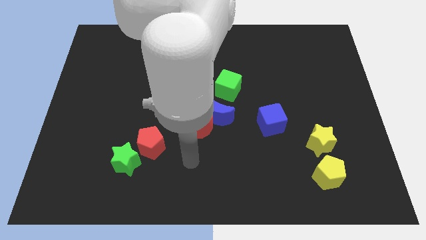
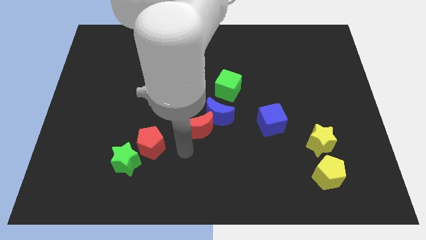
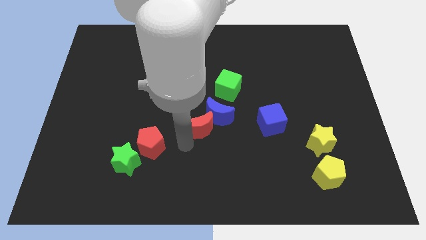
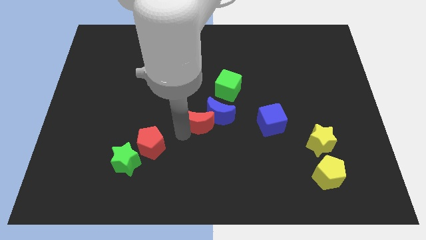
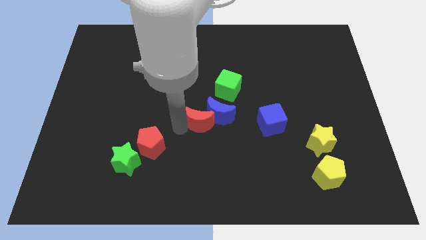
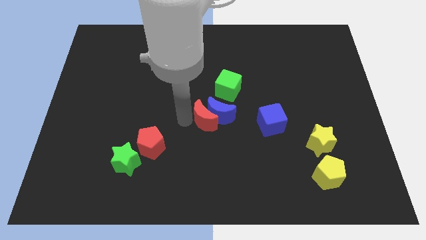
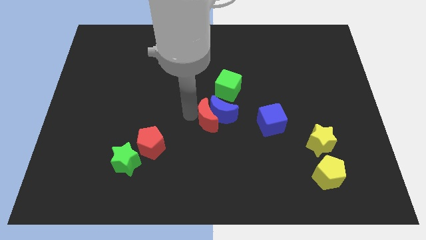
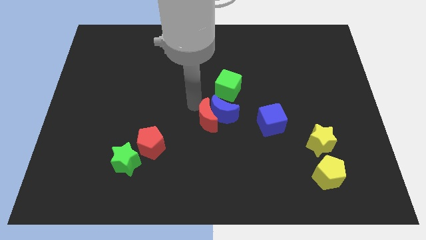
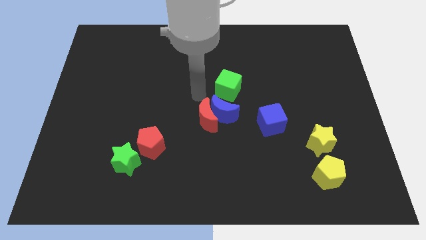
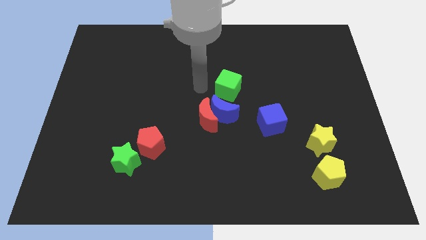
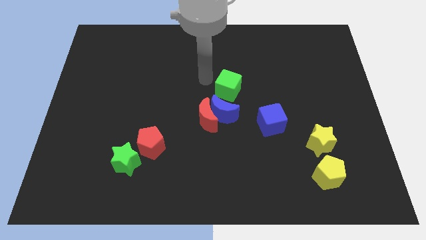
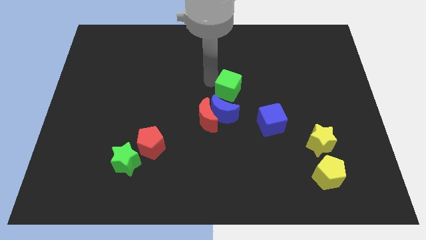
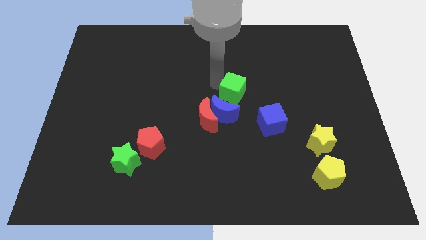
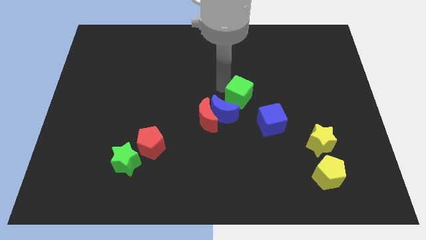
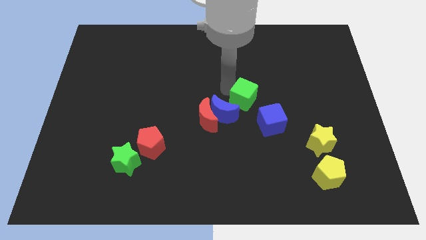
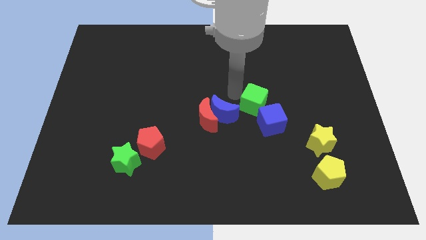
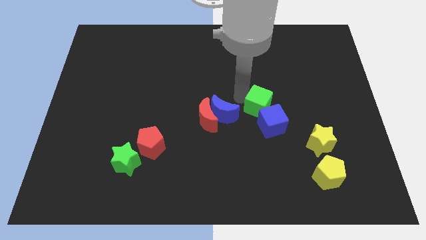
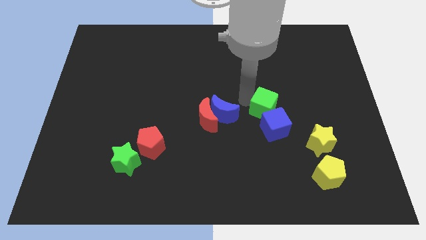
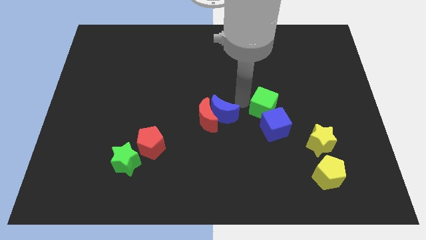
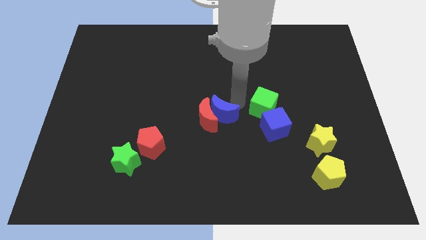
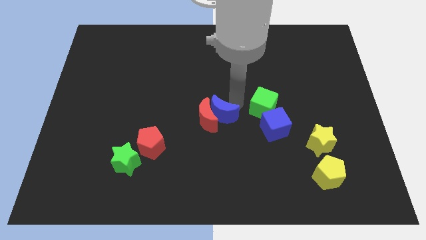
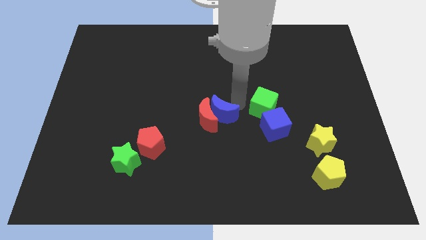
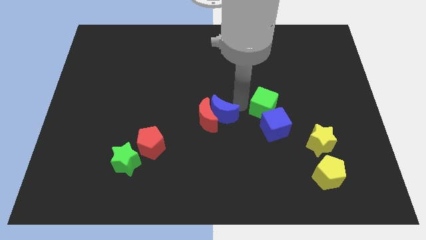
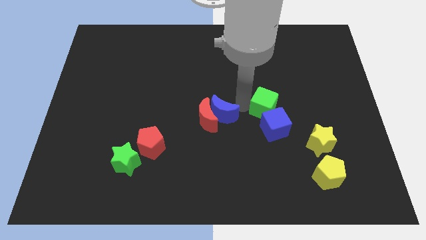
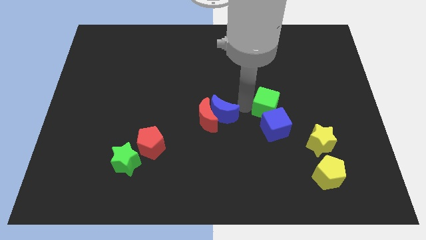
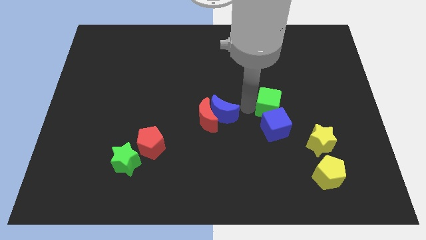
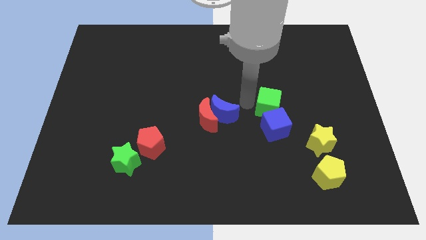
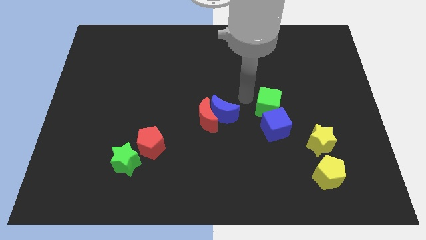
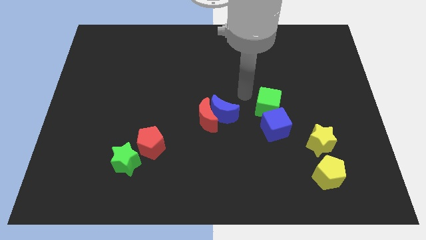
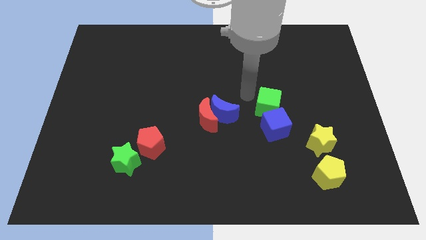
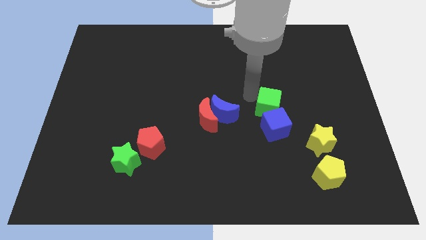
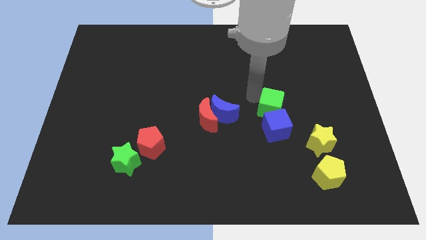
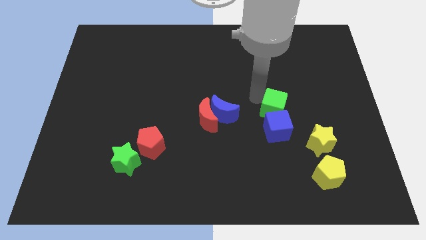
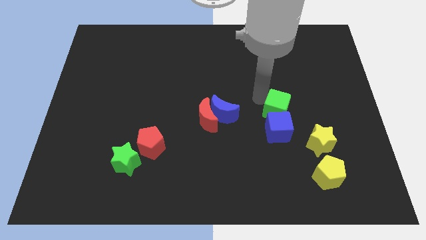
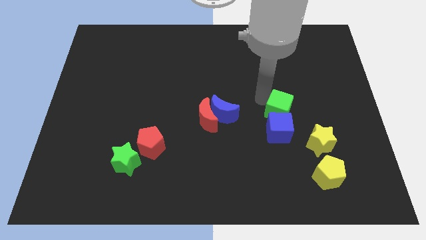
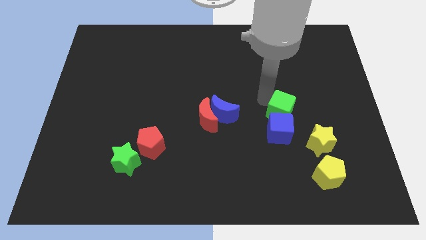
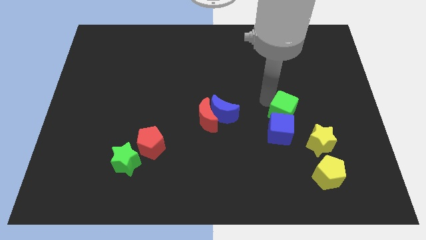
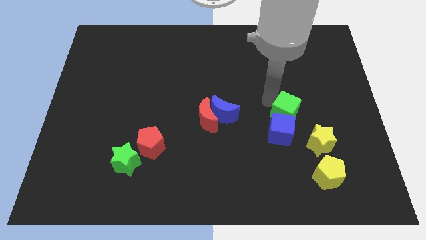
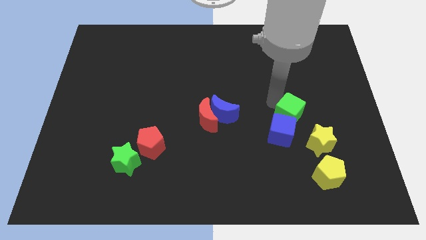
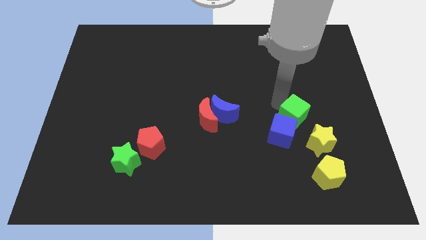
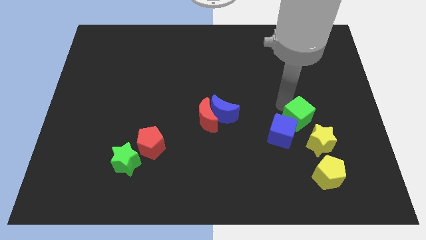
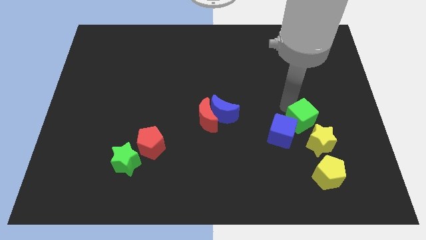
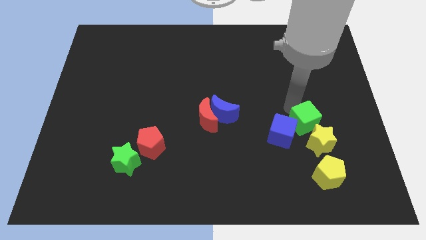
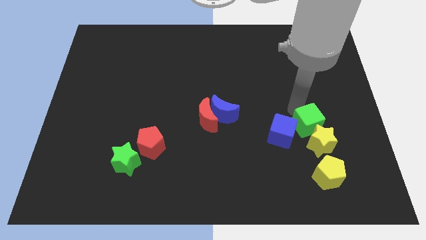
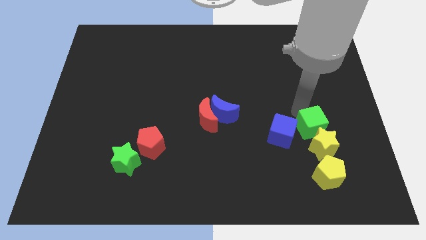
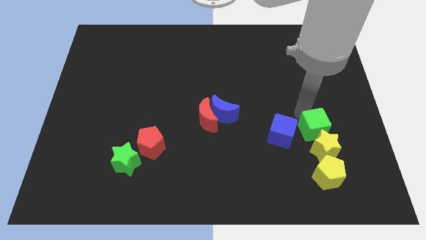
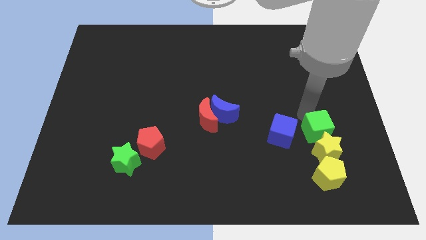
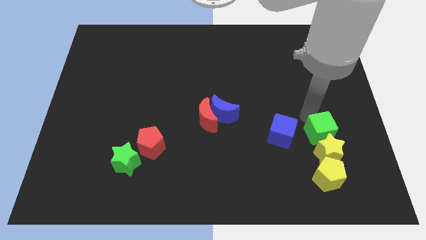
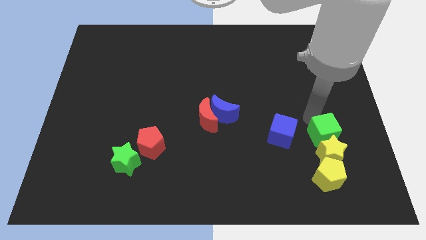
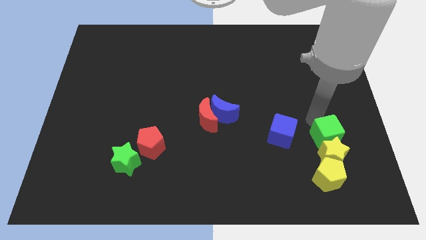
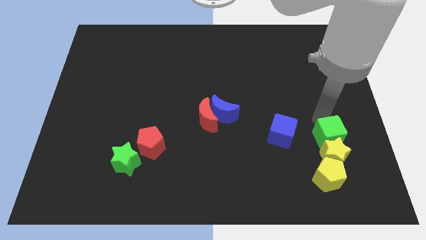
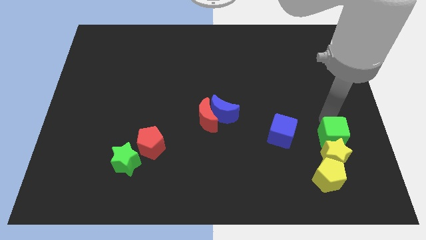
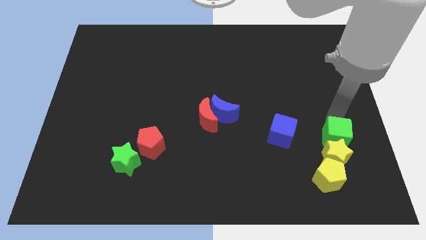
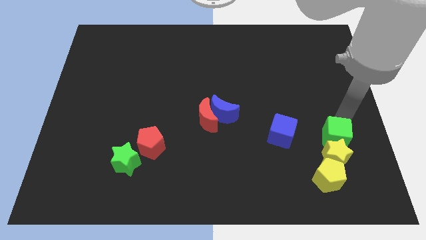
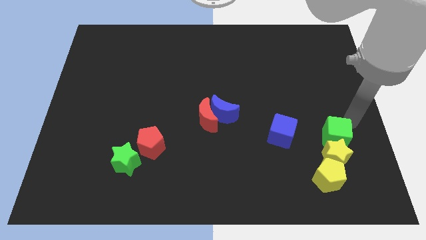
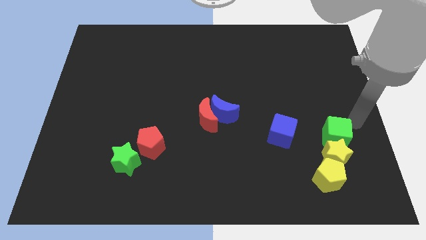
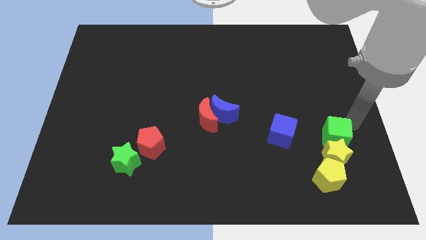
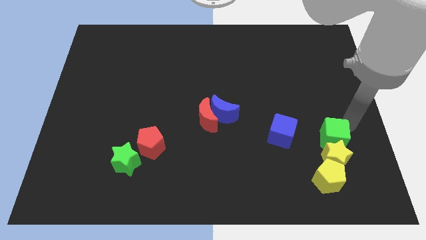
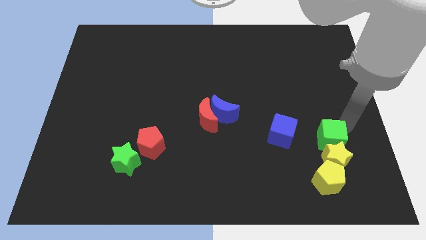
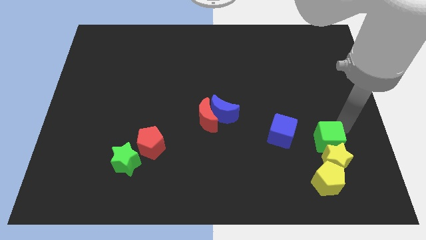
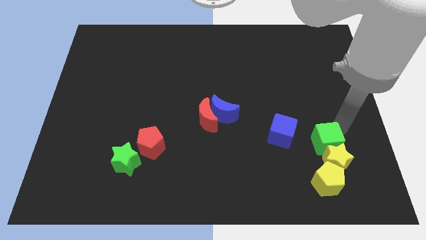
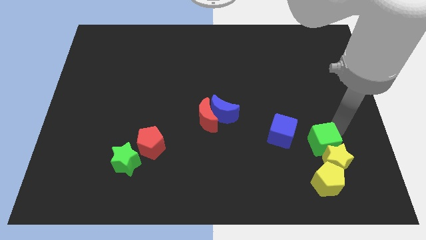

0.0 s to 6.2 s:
slide the green cube diagonally down and to the right of the blue cube
